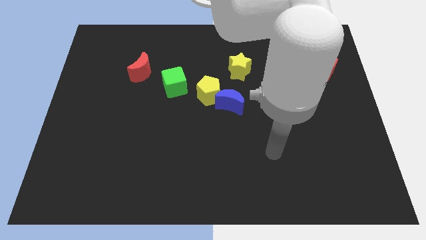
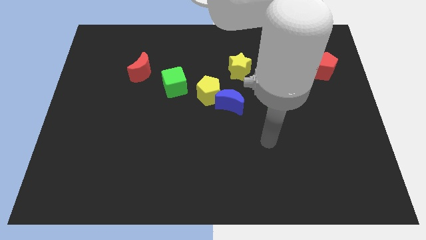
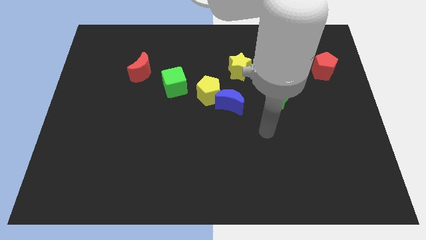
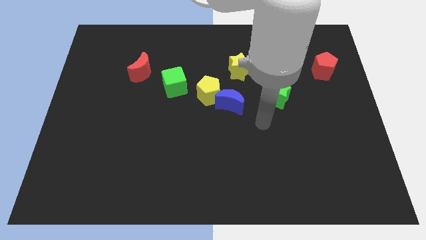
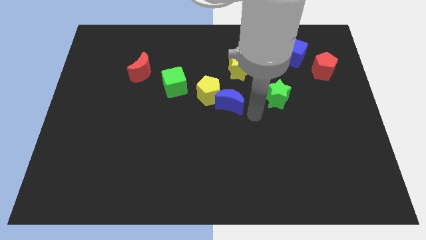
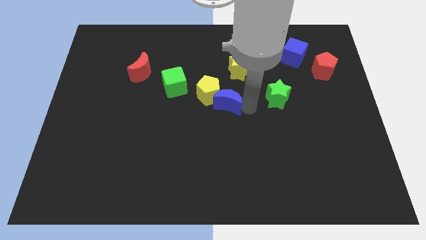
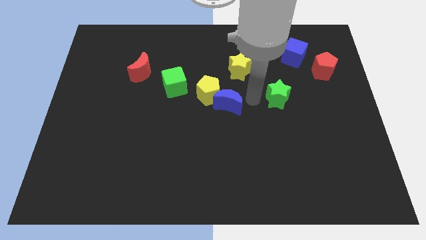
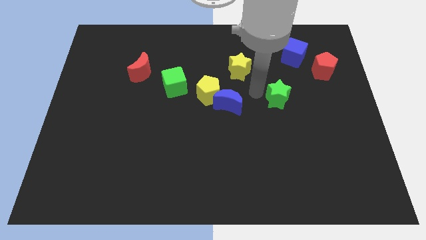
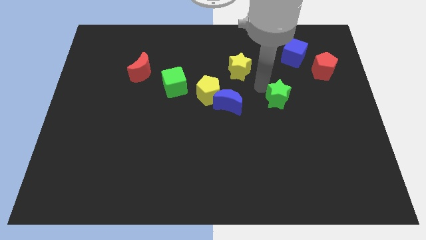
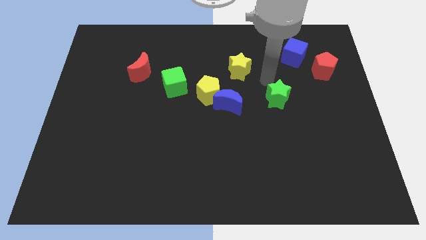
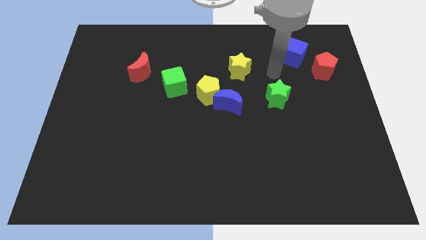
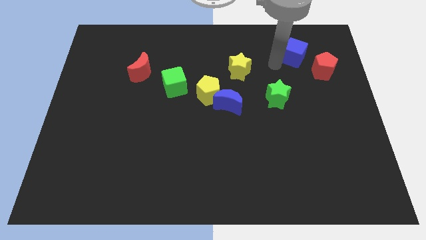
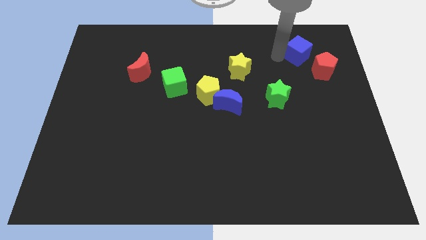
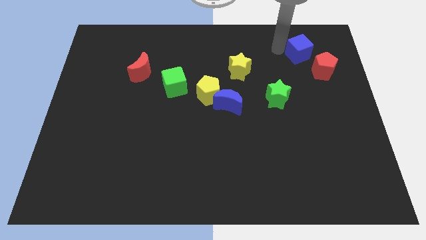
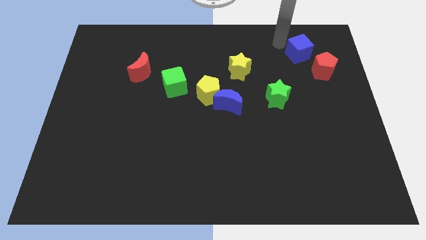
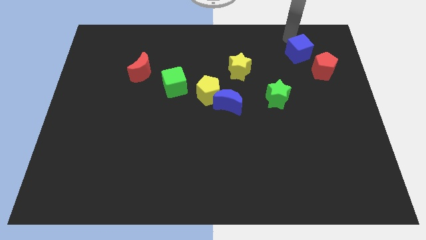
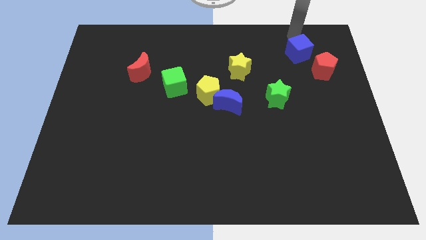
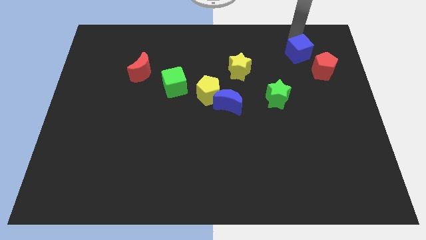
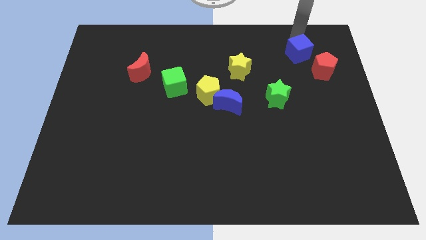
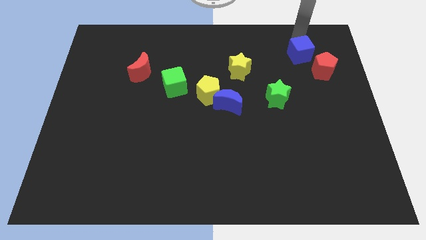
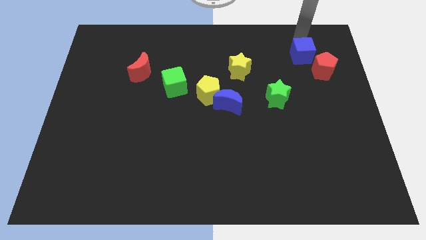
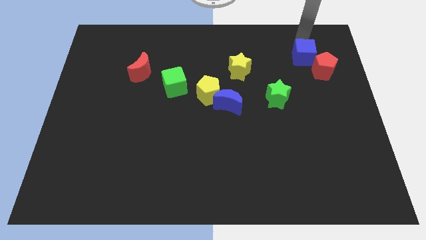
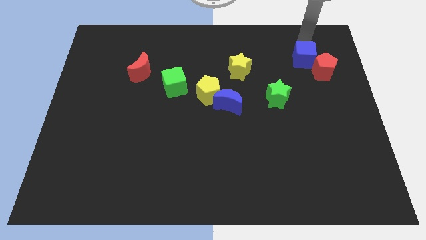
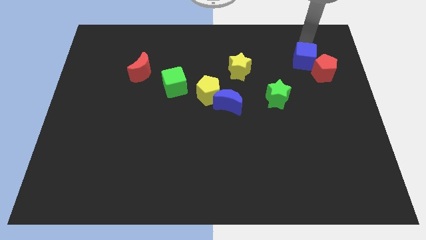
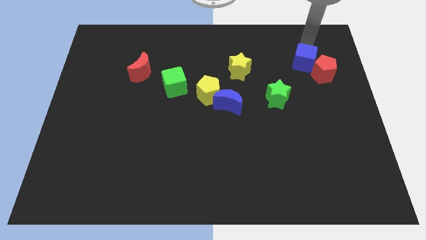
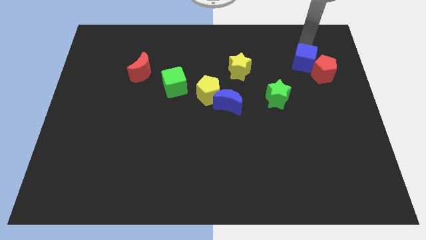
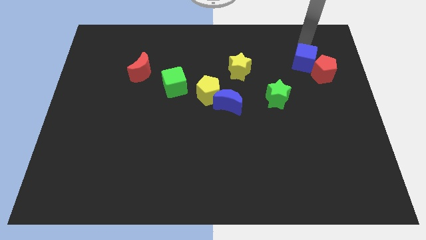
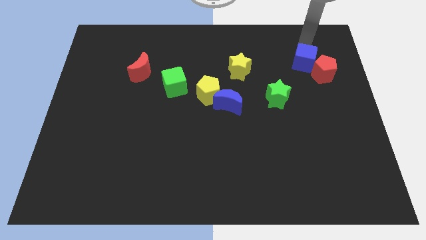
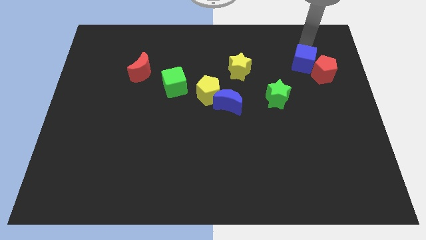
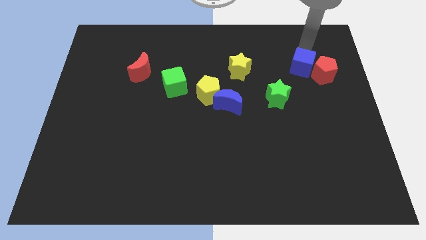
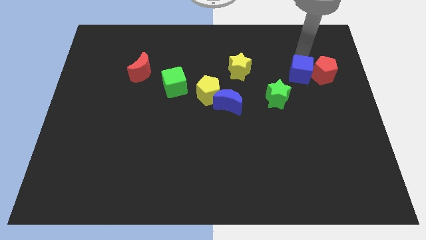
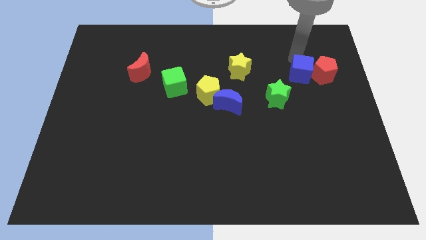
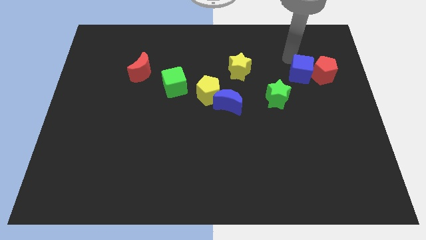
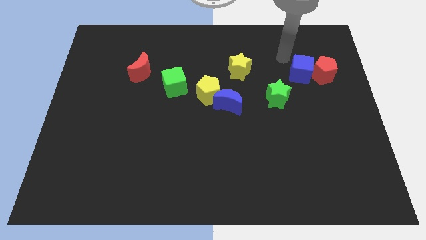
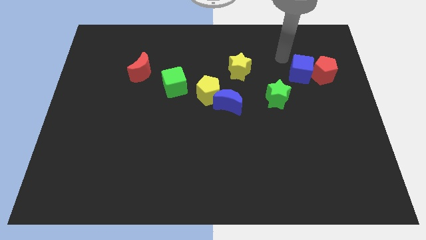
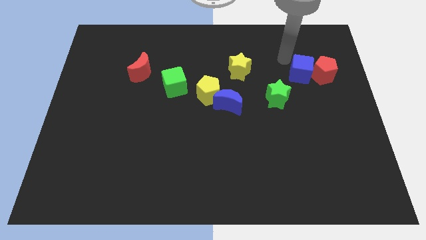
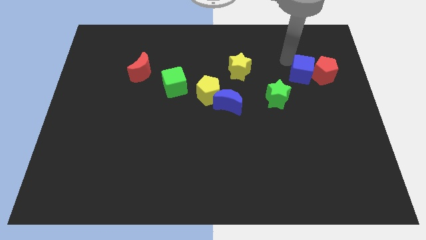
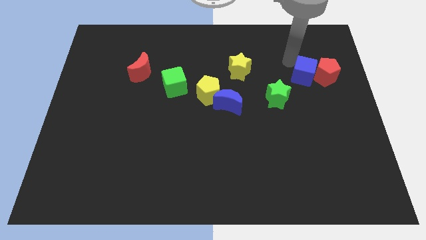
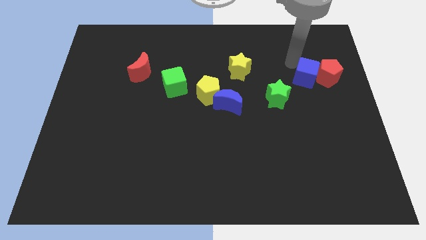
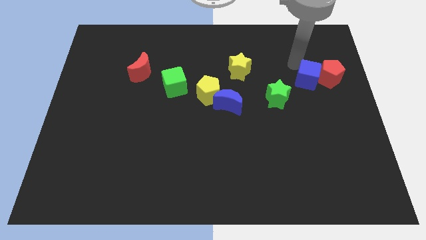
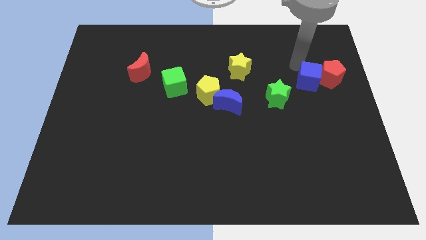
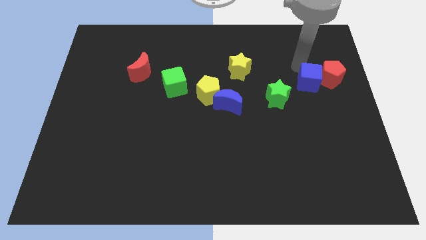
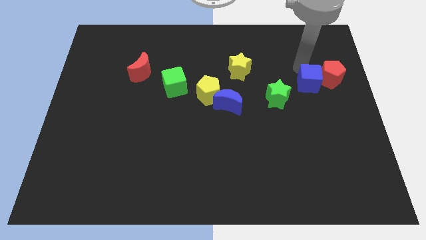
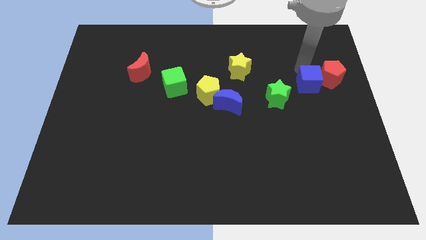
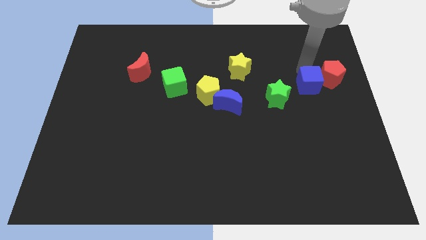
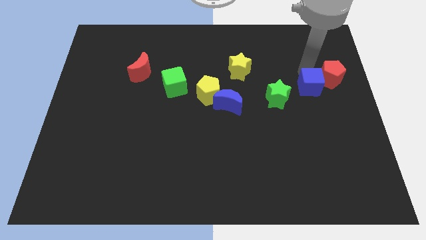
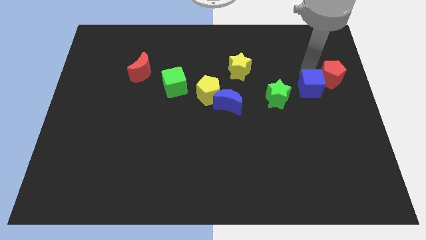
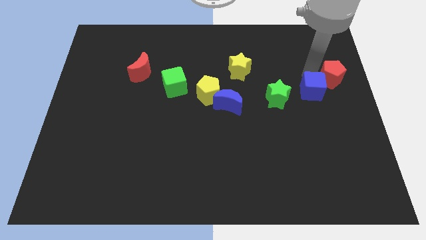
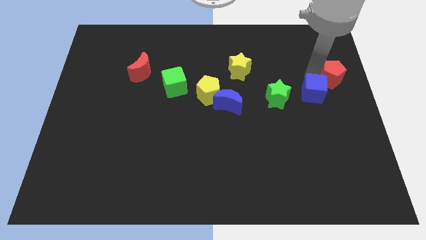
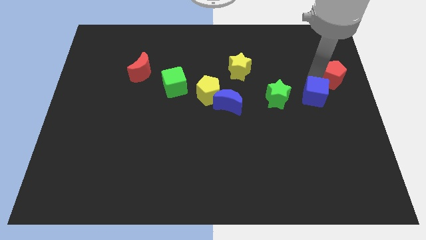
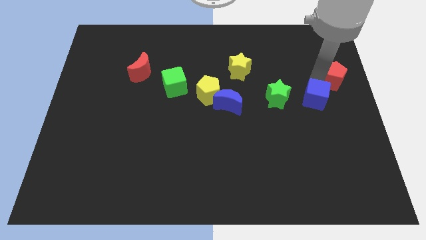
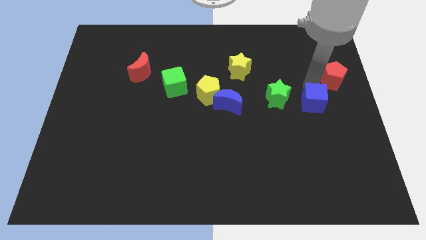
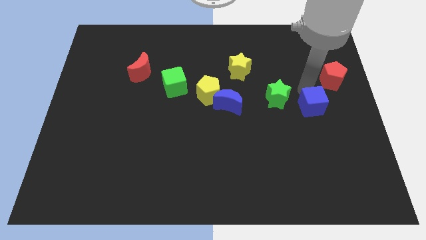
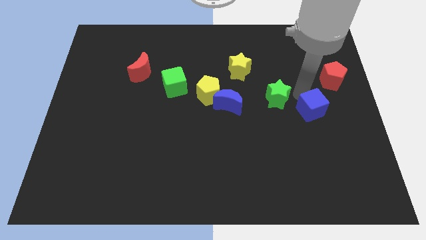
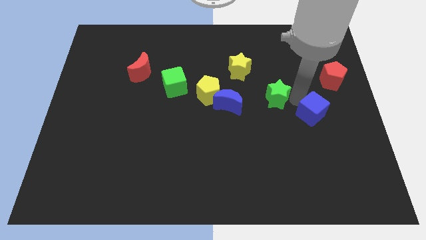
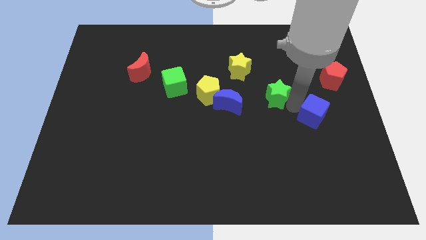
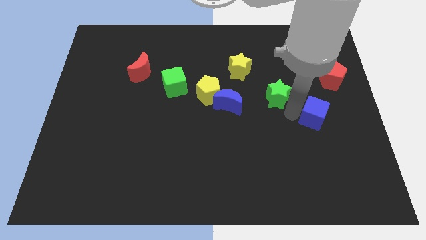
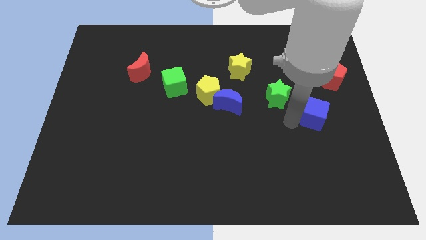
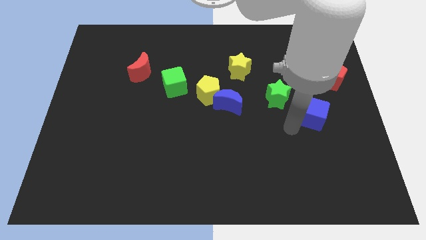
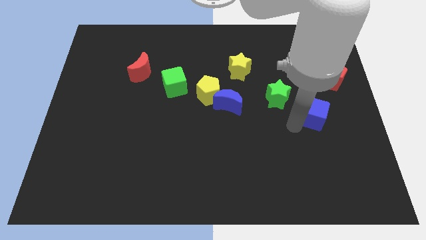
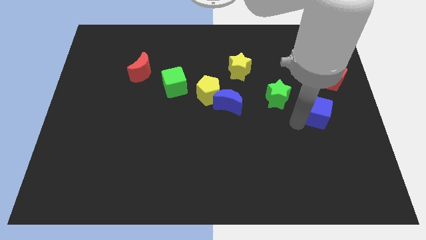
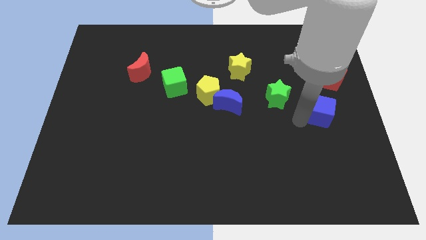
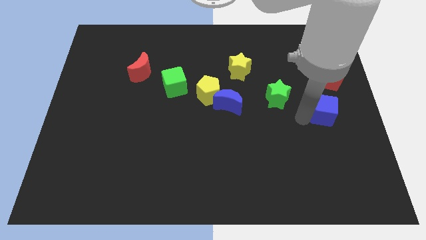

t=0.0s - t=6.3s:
slide the blue cube to the right side

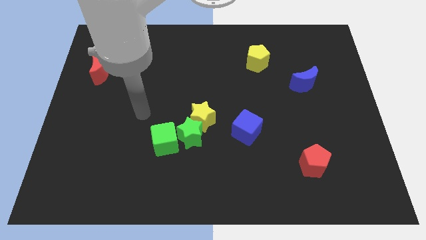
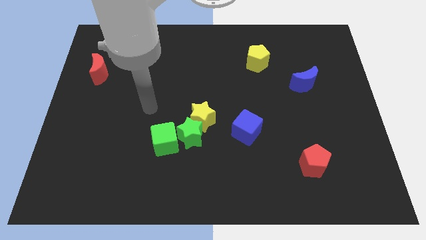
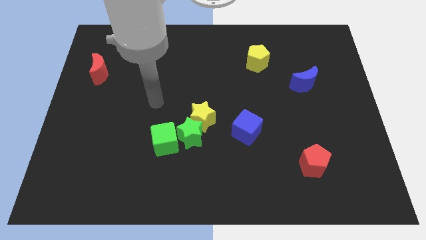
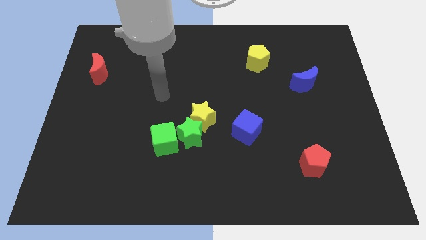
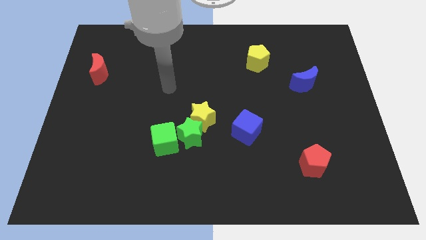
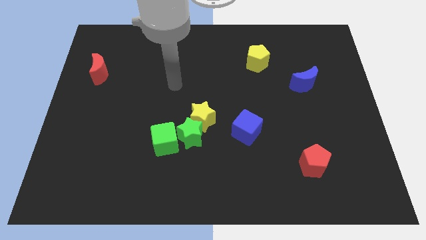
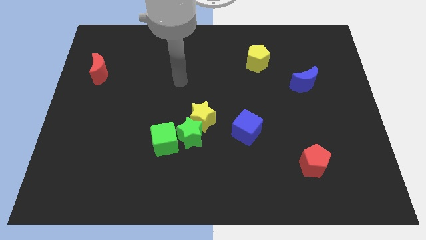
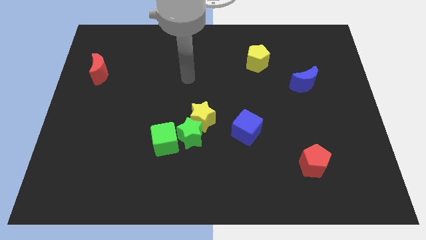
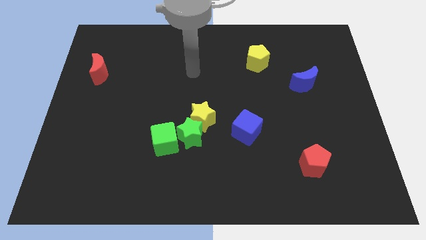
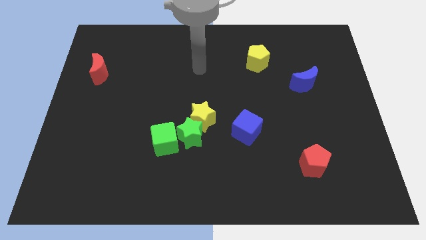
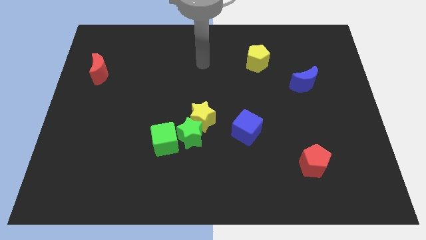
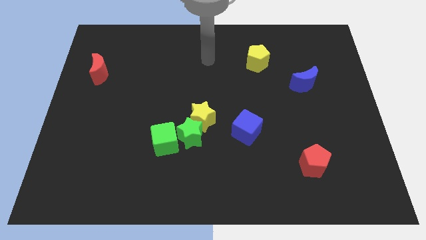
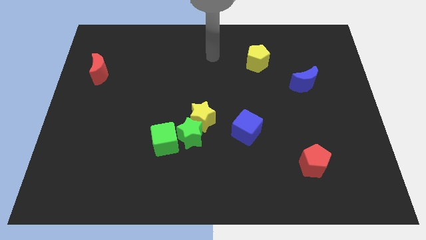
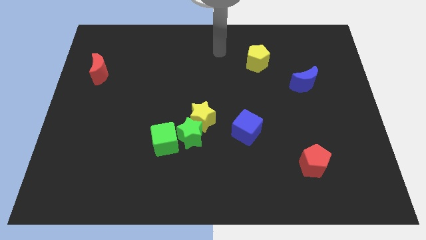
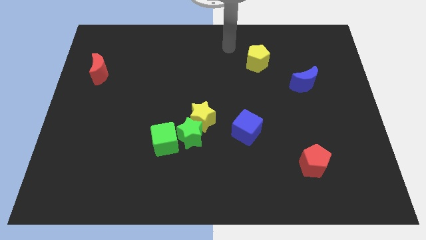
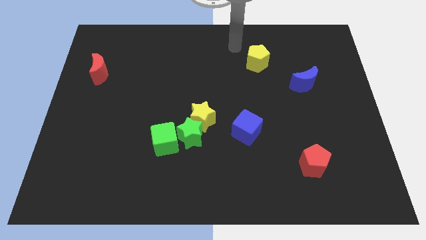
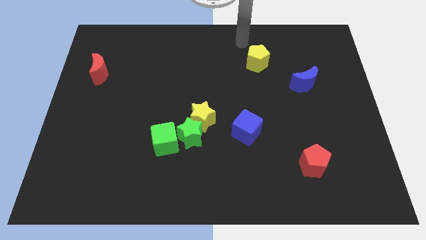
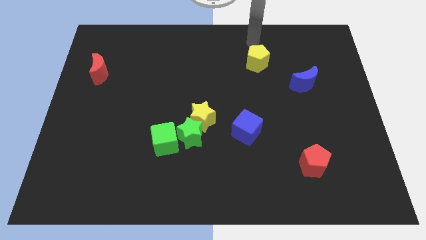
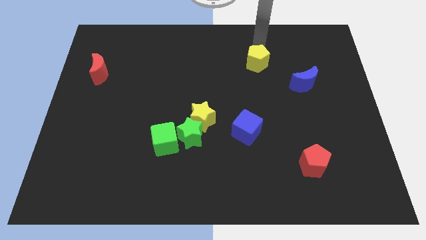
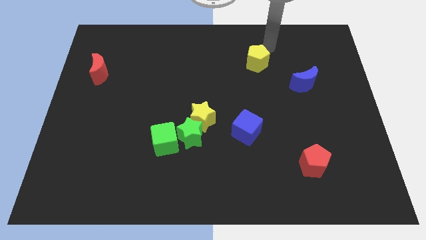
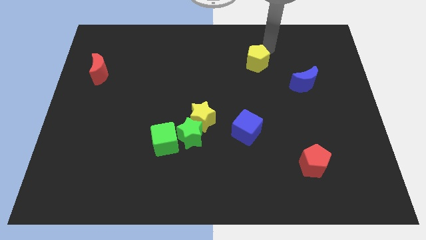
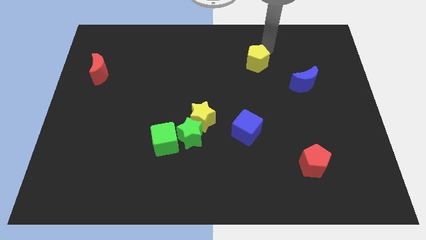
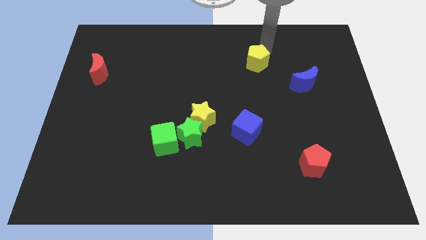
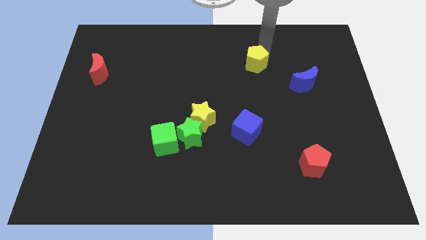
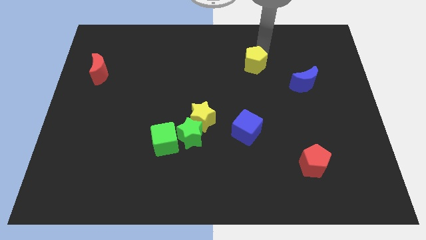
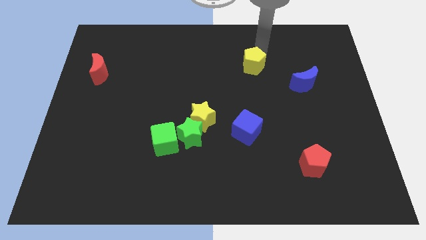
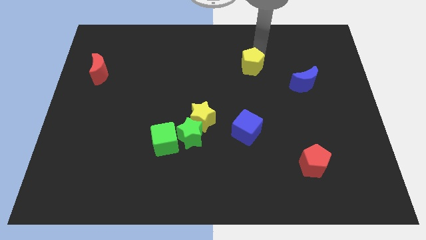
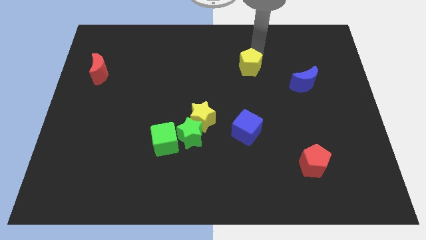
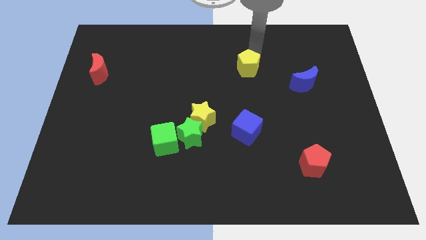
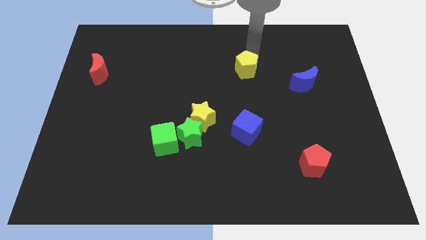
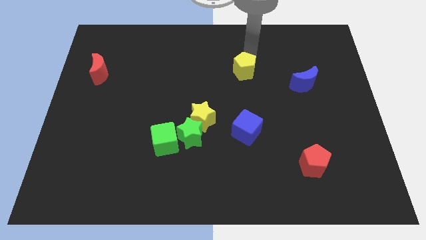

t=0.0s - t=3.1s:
put the yellow pentagon to the middle
